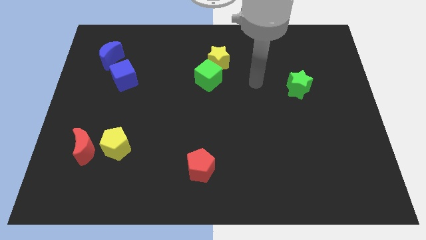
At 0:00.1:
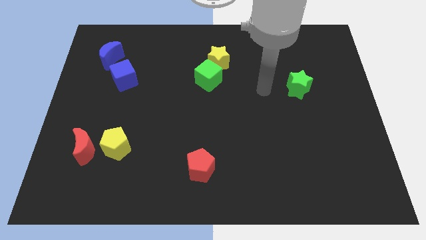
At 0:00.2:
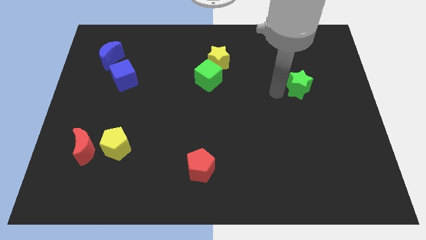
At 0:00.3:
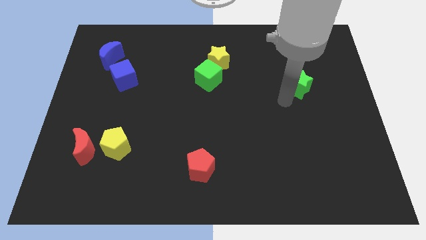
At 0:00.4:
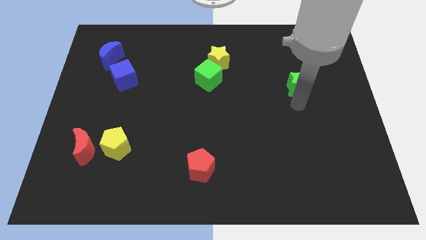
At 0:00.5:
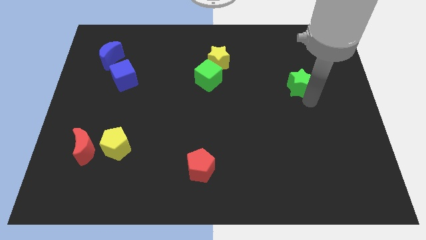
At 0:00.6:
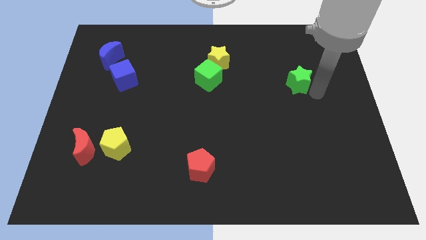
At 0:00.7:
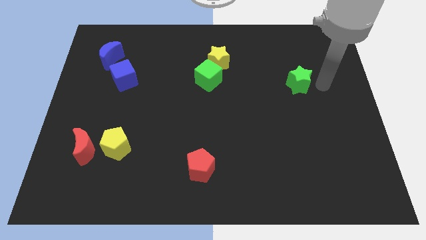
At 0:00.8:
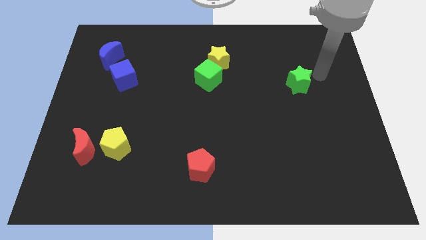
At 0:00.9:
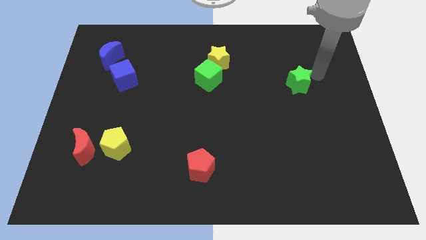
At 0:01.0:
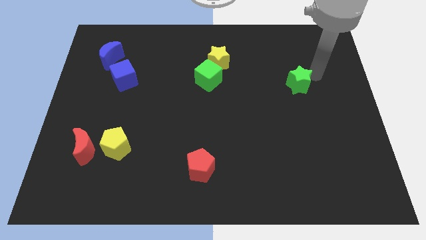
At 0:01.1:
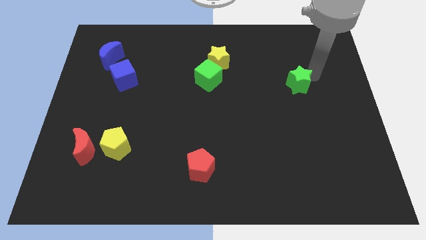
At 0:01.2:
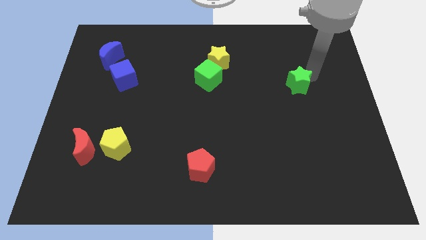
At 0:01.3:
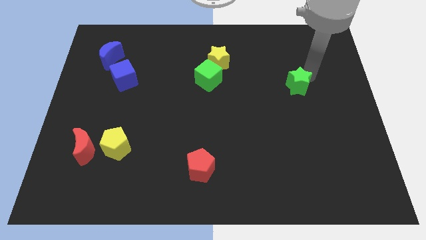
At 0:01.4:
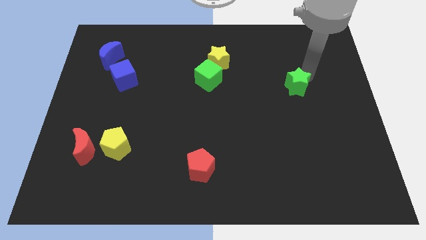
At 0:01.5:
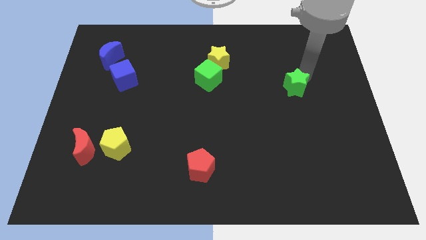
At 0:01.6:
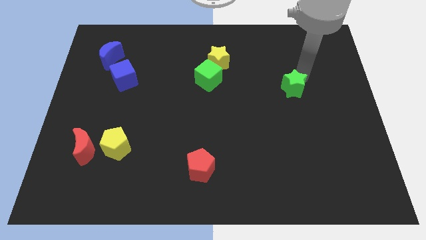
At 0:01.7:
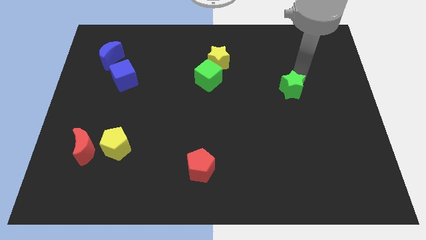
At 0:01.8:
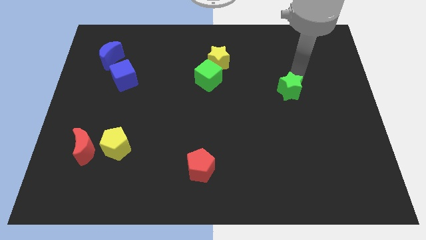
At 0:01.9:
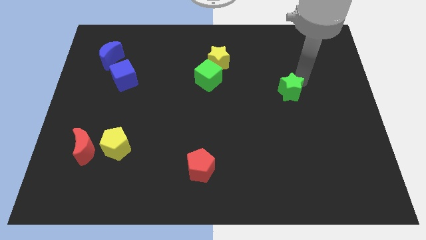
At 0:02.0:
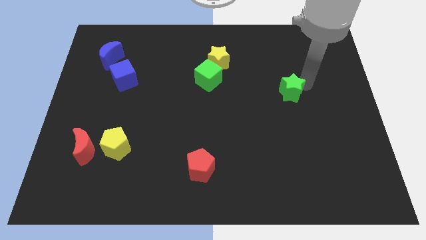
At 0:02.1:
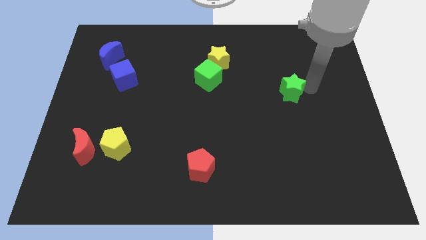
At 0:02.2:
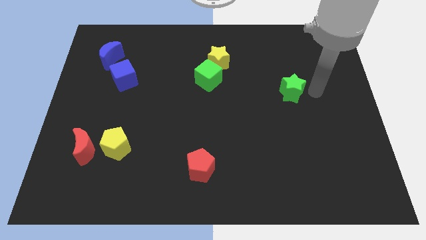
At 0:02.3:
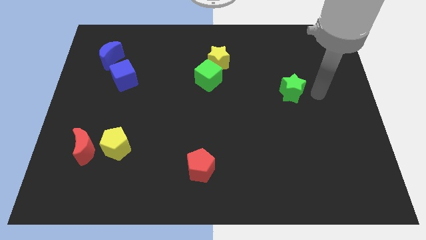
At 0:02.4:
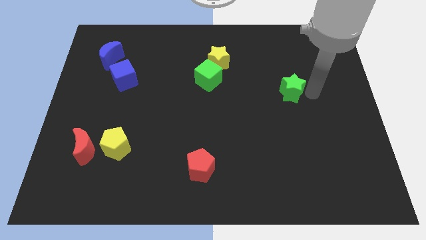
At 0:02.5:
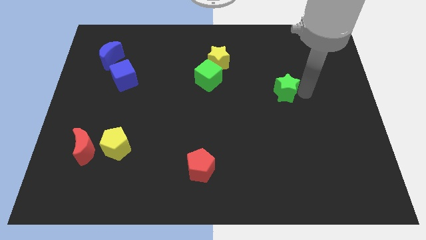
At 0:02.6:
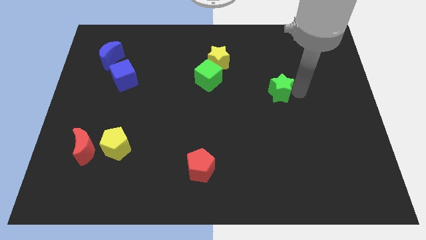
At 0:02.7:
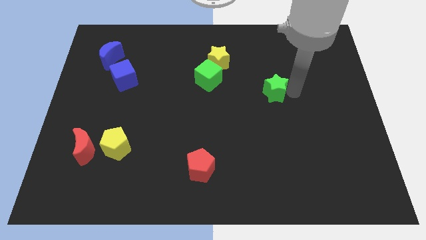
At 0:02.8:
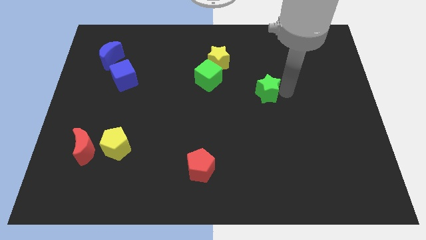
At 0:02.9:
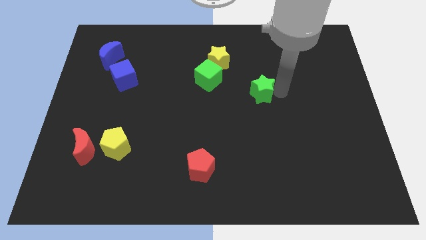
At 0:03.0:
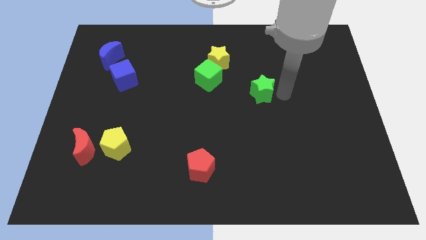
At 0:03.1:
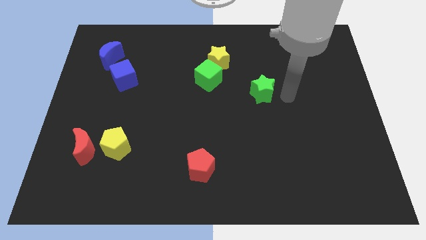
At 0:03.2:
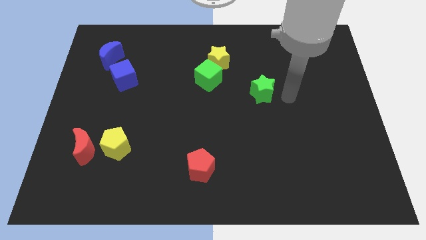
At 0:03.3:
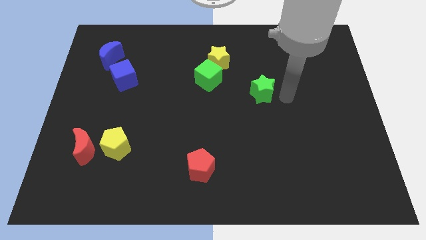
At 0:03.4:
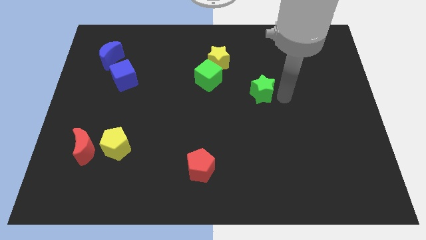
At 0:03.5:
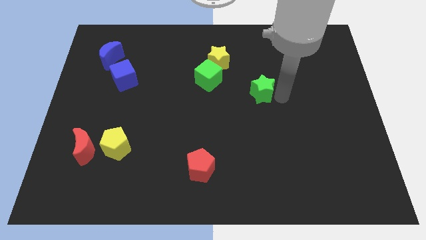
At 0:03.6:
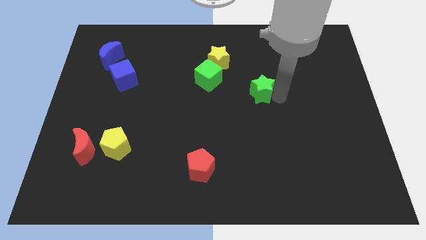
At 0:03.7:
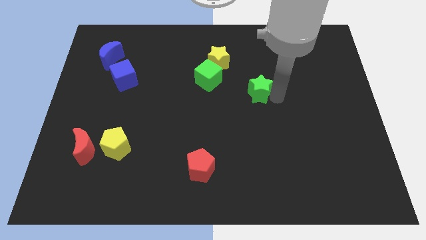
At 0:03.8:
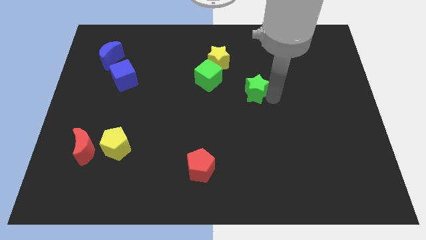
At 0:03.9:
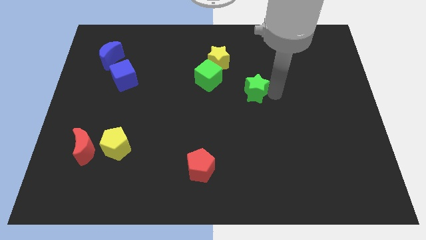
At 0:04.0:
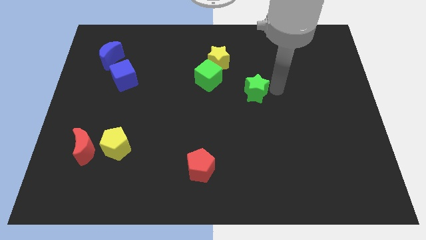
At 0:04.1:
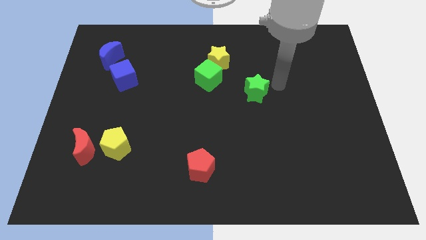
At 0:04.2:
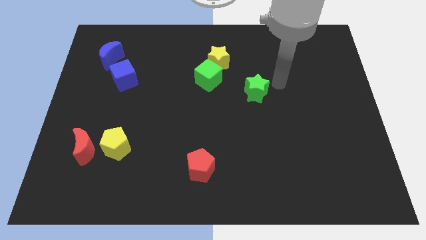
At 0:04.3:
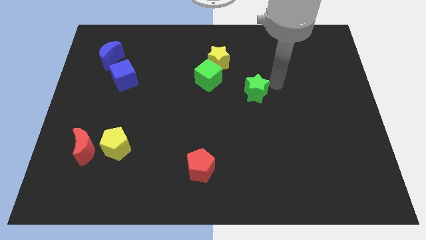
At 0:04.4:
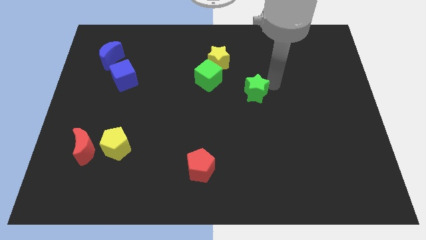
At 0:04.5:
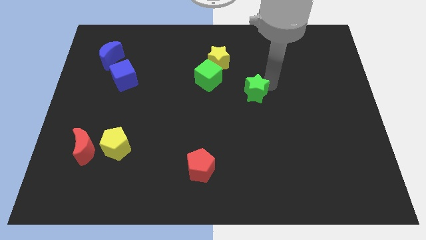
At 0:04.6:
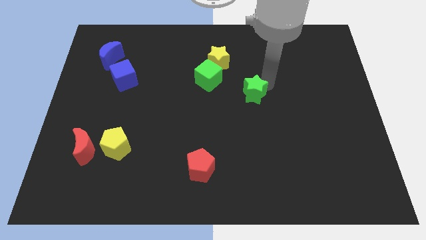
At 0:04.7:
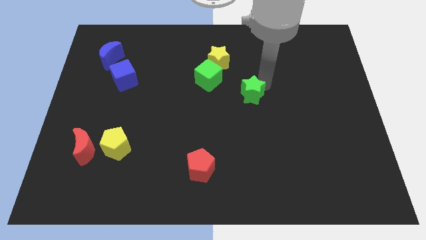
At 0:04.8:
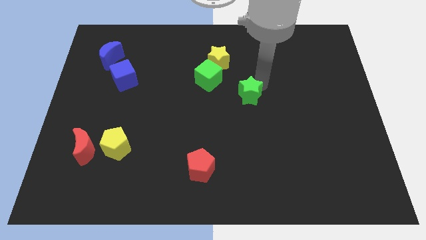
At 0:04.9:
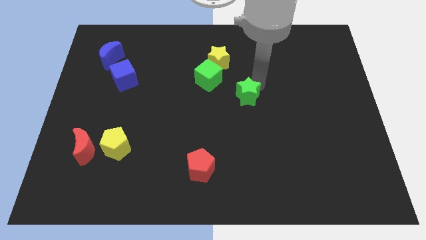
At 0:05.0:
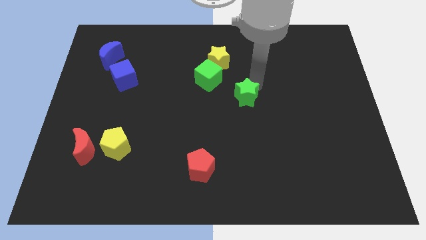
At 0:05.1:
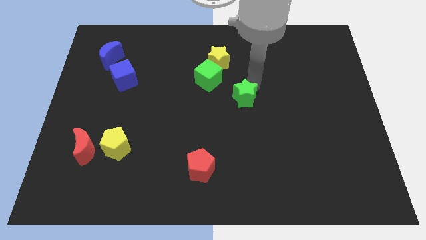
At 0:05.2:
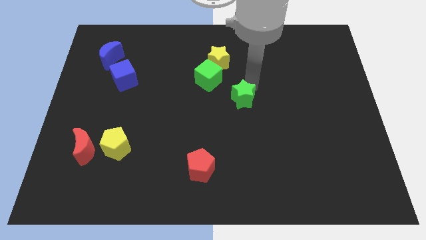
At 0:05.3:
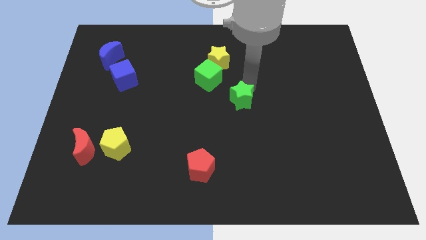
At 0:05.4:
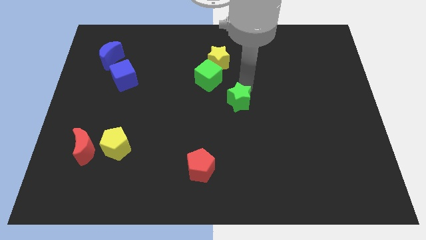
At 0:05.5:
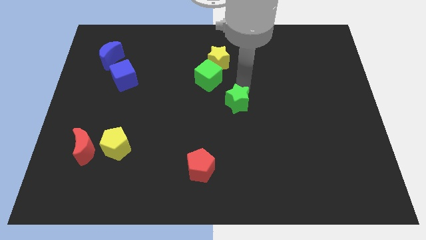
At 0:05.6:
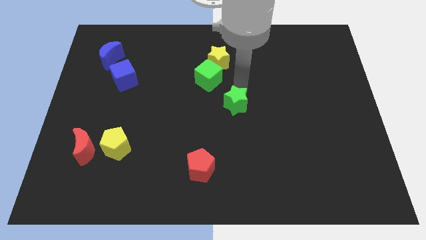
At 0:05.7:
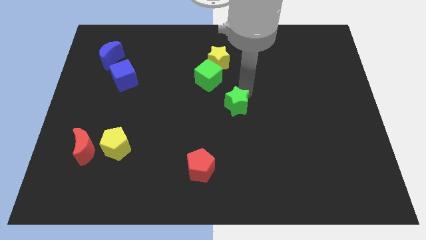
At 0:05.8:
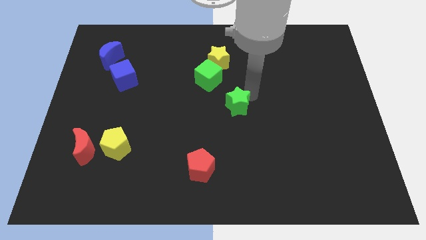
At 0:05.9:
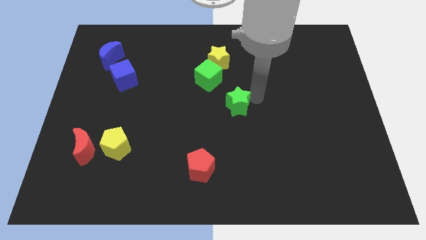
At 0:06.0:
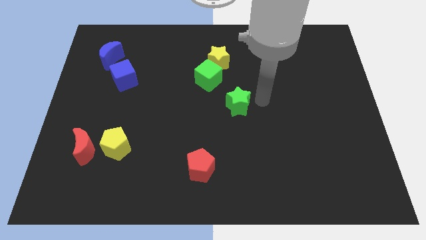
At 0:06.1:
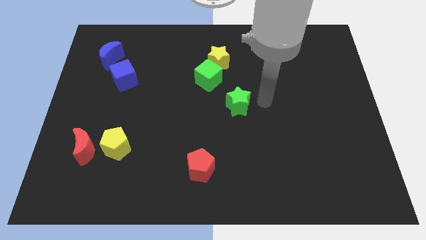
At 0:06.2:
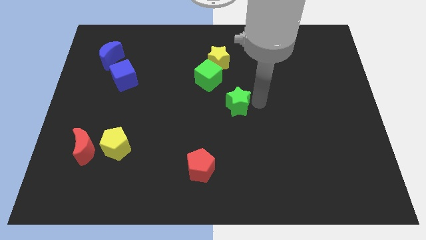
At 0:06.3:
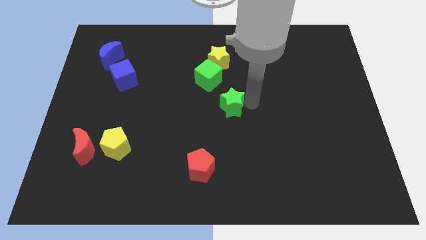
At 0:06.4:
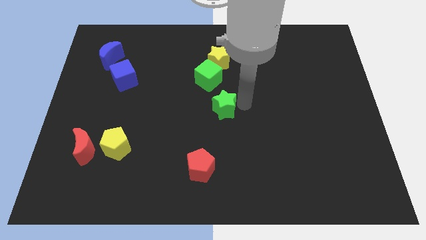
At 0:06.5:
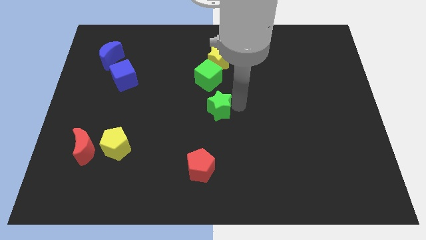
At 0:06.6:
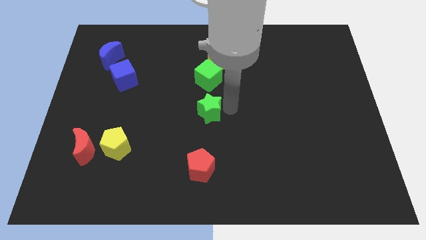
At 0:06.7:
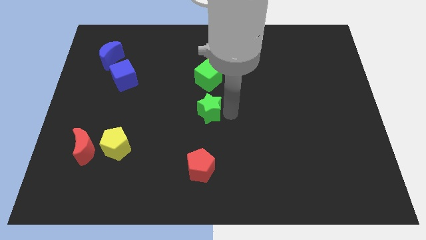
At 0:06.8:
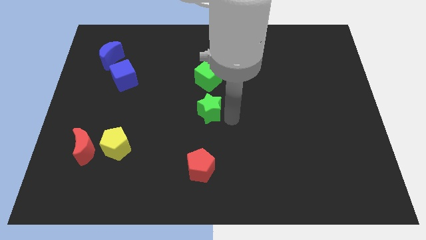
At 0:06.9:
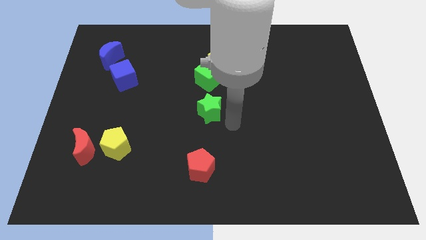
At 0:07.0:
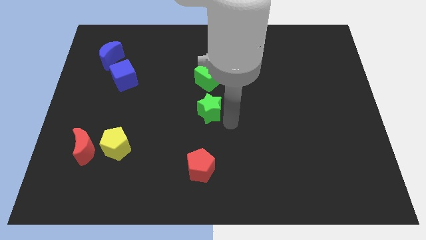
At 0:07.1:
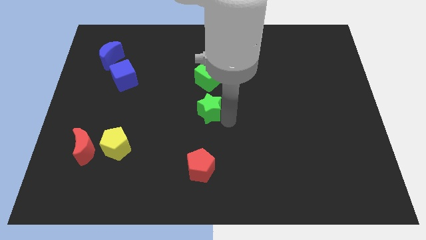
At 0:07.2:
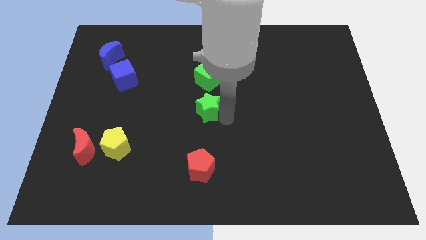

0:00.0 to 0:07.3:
push the green star left
